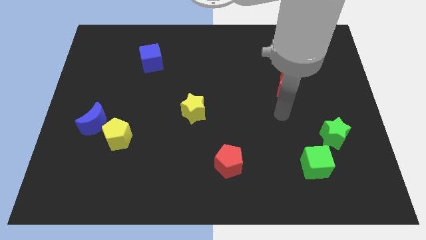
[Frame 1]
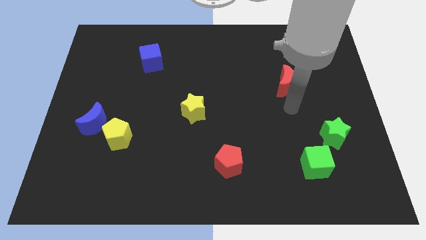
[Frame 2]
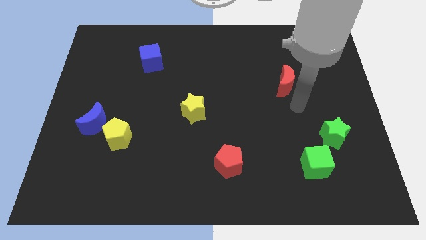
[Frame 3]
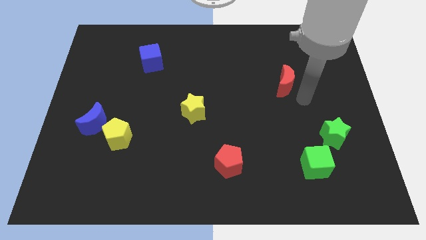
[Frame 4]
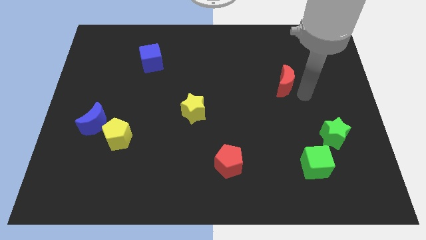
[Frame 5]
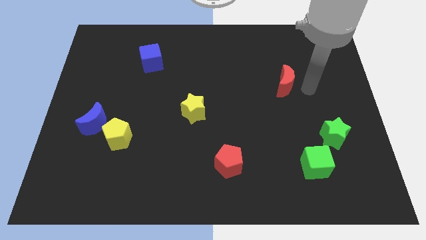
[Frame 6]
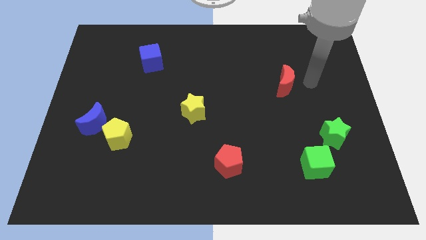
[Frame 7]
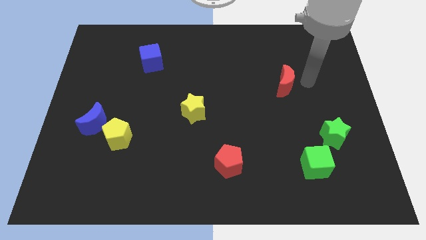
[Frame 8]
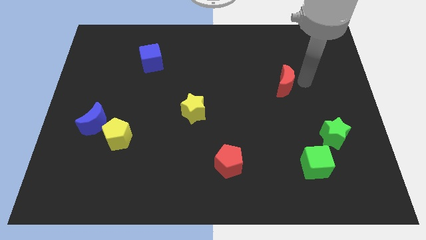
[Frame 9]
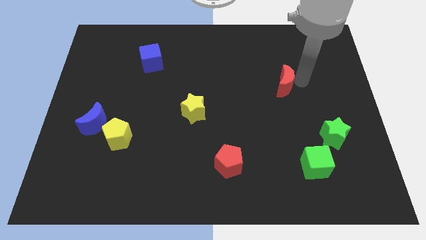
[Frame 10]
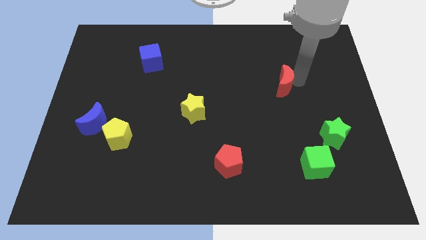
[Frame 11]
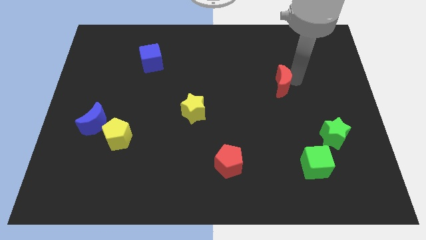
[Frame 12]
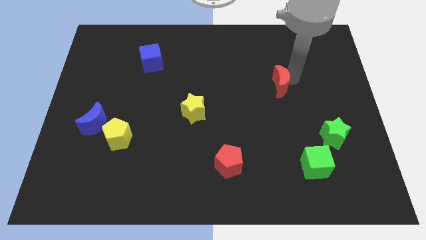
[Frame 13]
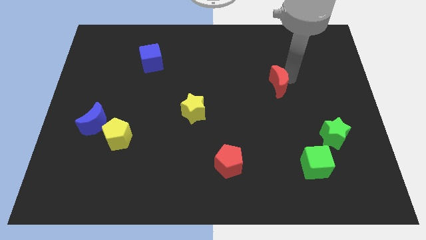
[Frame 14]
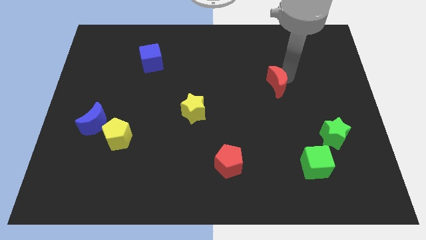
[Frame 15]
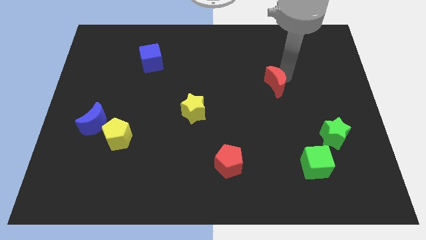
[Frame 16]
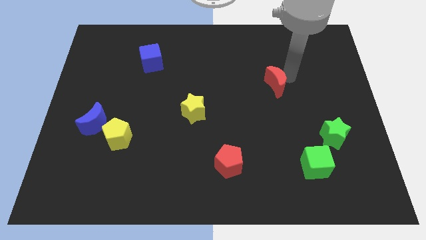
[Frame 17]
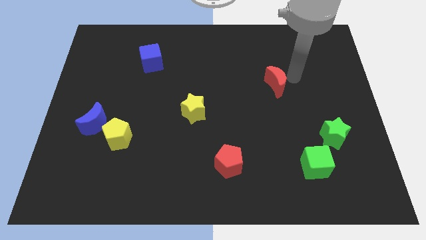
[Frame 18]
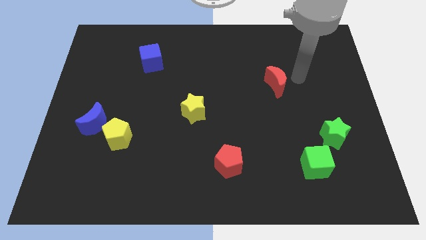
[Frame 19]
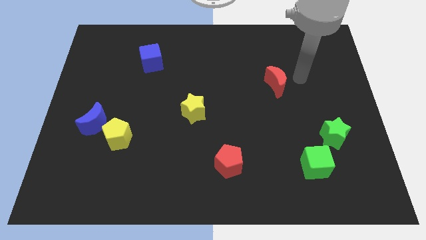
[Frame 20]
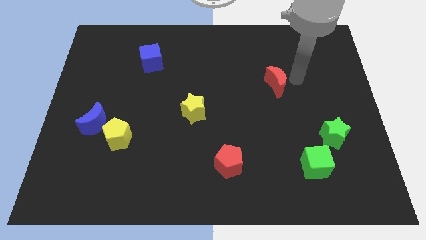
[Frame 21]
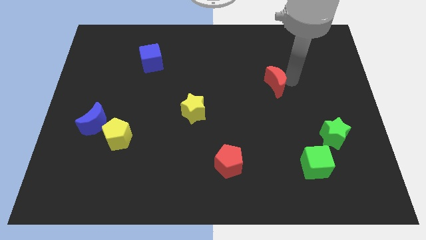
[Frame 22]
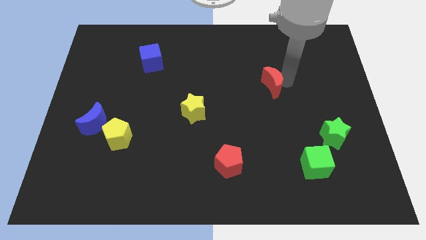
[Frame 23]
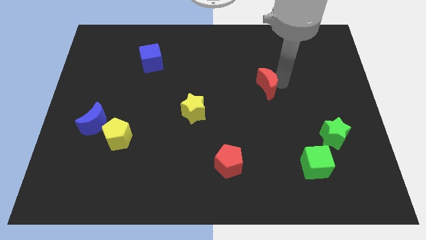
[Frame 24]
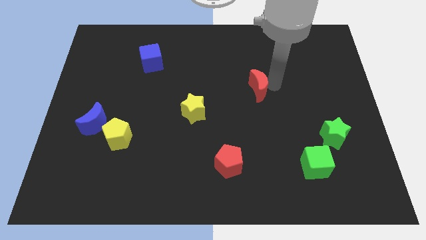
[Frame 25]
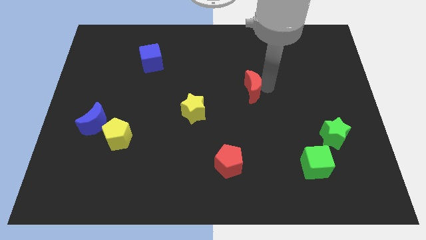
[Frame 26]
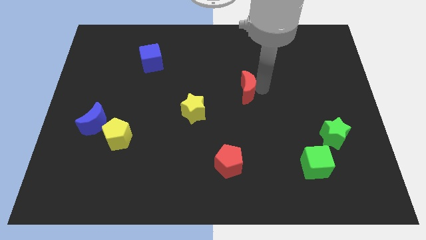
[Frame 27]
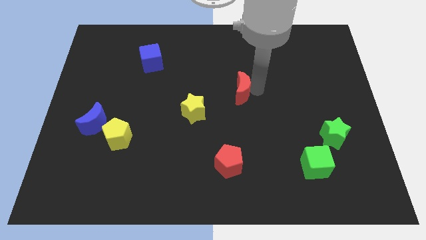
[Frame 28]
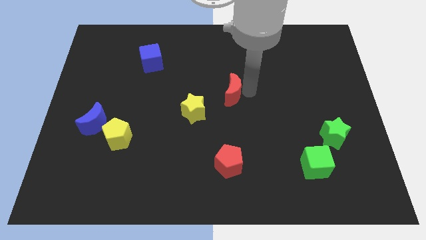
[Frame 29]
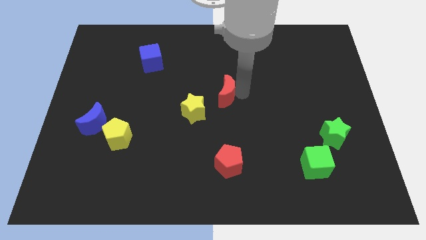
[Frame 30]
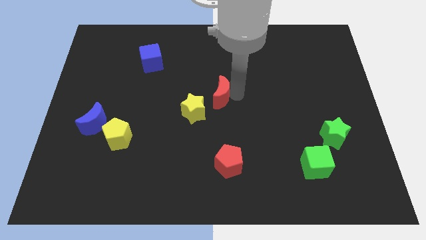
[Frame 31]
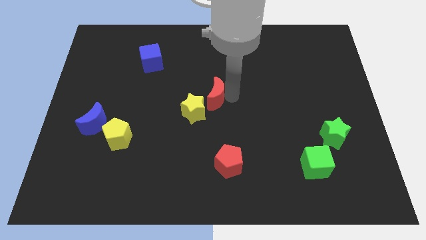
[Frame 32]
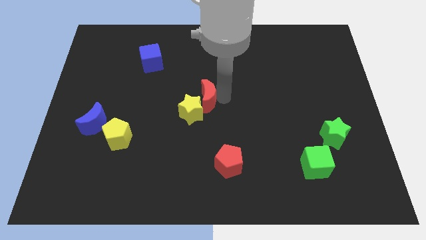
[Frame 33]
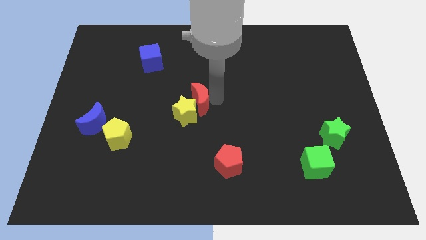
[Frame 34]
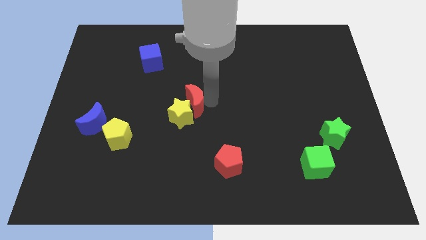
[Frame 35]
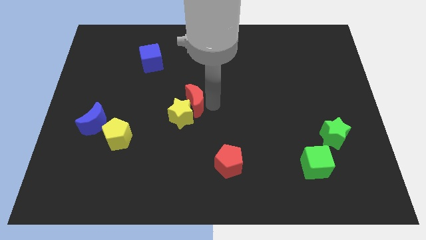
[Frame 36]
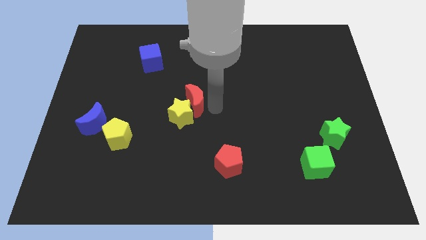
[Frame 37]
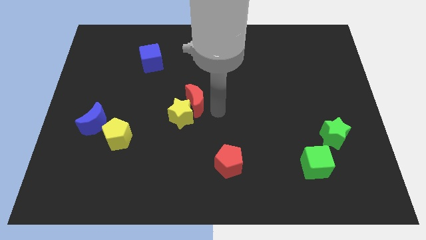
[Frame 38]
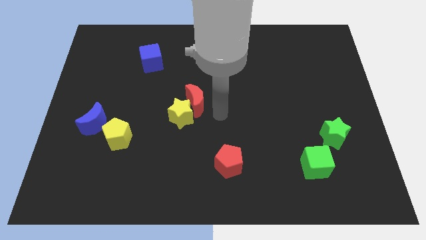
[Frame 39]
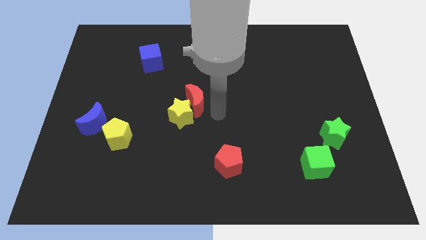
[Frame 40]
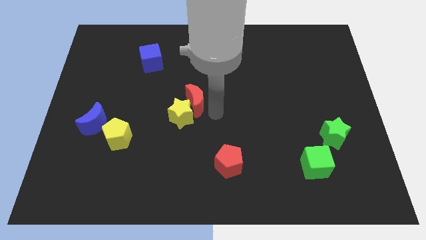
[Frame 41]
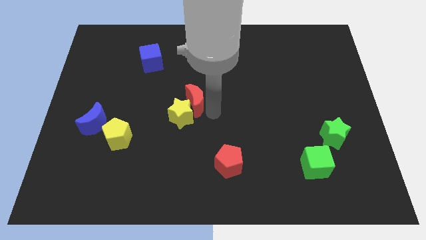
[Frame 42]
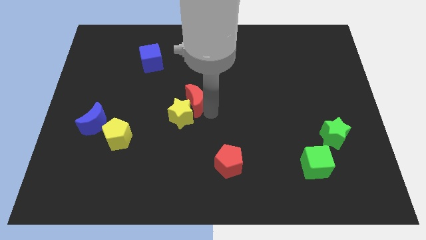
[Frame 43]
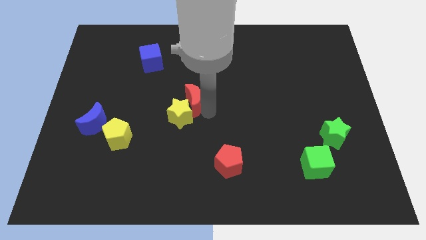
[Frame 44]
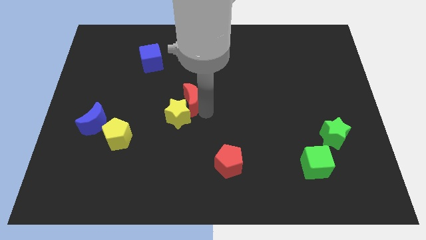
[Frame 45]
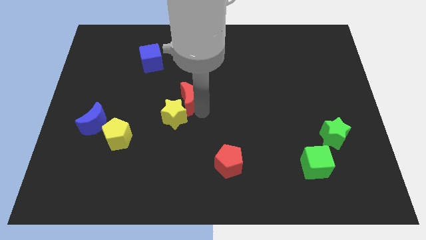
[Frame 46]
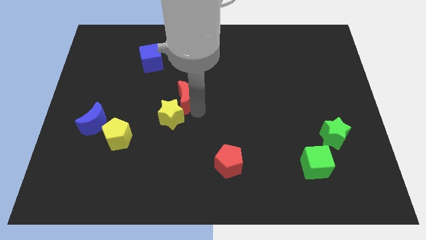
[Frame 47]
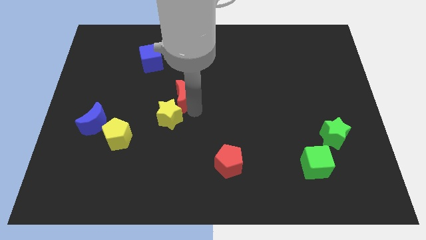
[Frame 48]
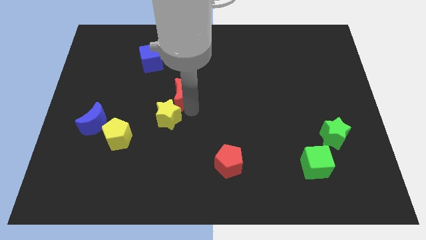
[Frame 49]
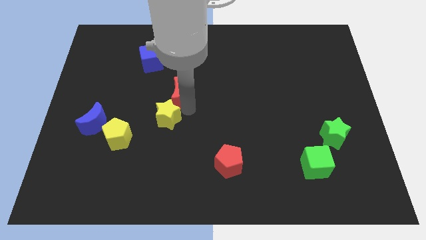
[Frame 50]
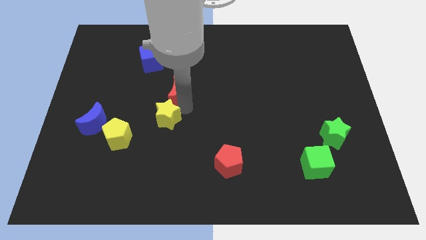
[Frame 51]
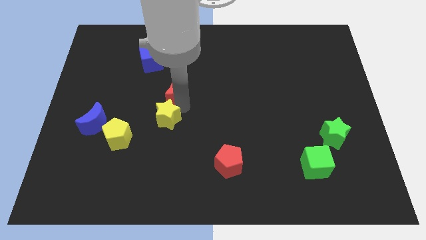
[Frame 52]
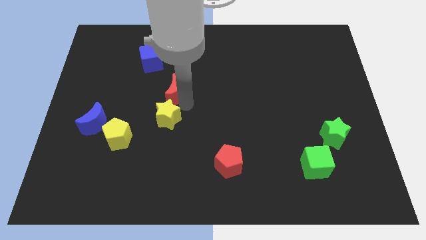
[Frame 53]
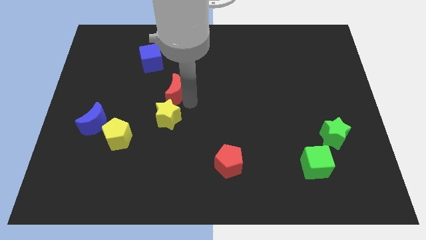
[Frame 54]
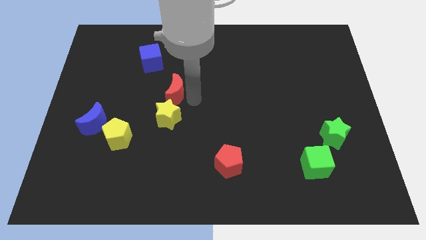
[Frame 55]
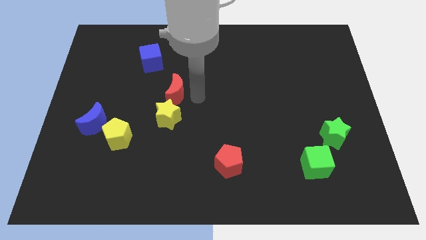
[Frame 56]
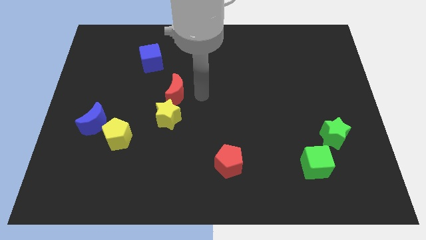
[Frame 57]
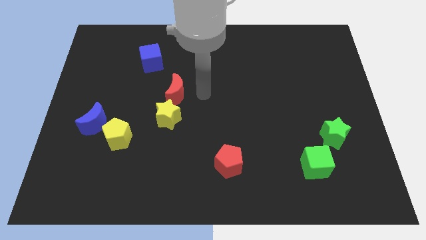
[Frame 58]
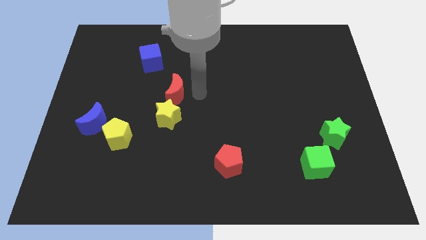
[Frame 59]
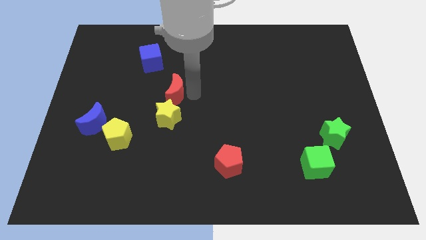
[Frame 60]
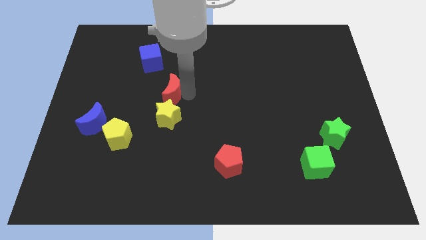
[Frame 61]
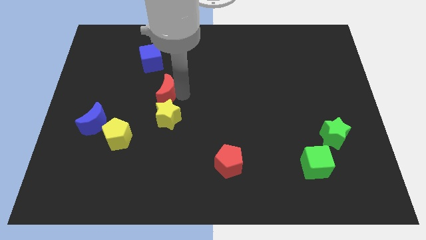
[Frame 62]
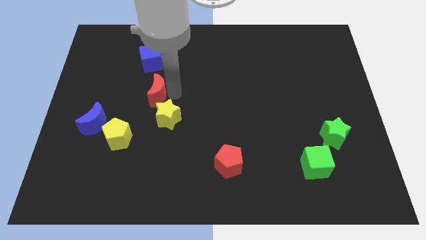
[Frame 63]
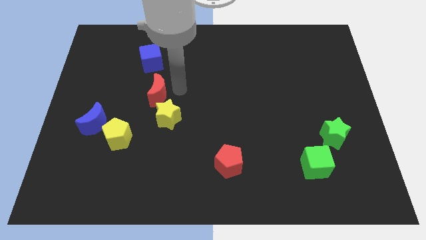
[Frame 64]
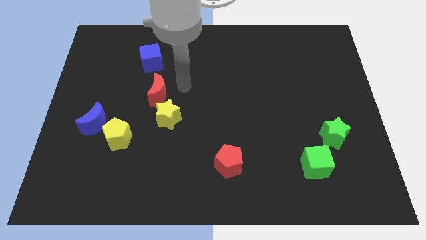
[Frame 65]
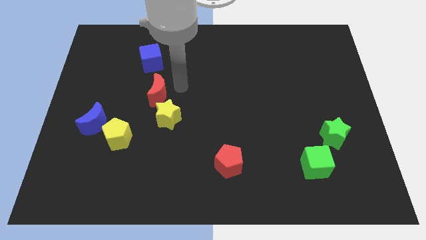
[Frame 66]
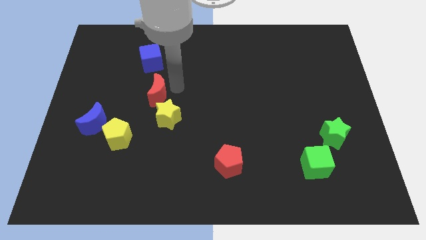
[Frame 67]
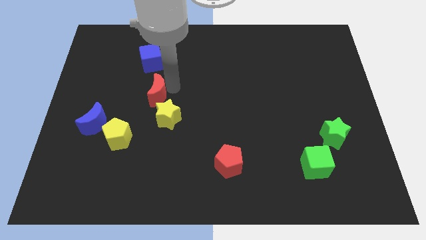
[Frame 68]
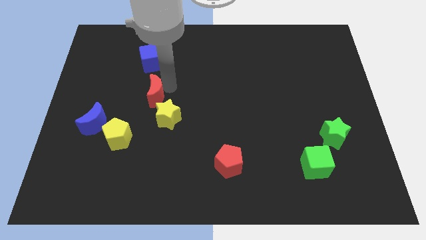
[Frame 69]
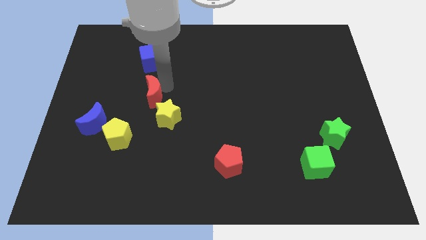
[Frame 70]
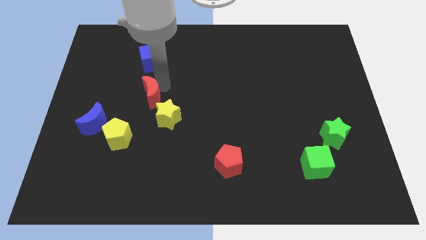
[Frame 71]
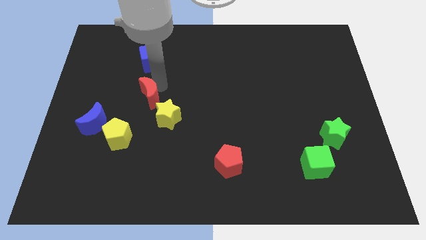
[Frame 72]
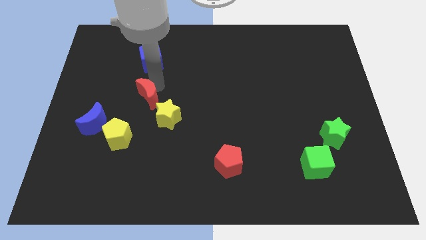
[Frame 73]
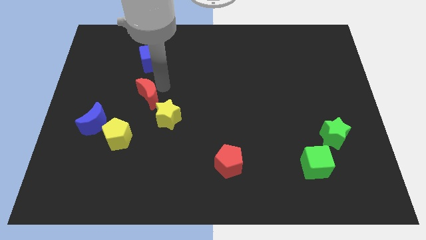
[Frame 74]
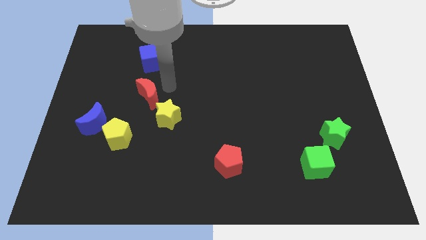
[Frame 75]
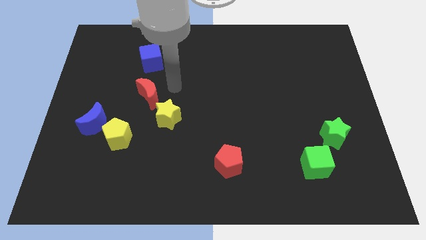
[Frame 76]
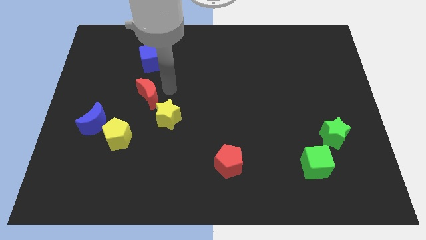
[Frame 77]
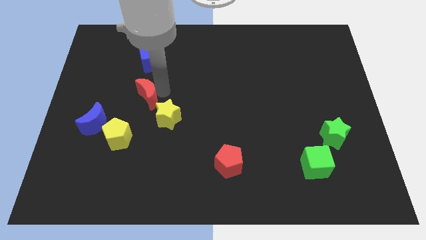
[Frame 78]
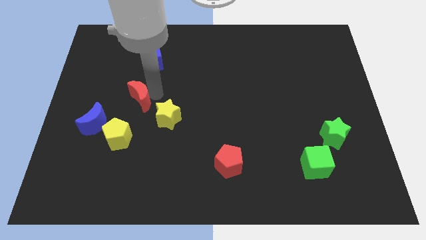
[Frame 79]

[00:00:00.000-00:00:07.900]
push the red moon to the top right of the blue moon
